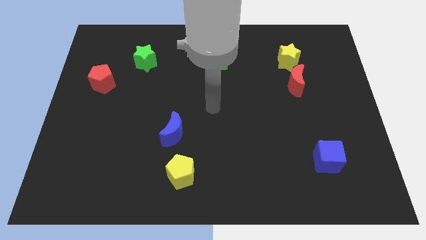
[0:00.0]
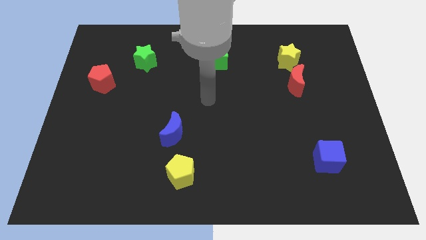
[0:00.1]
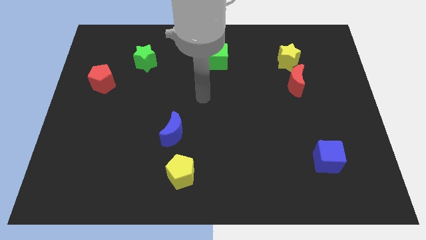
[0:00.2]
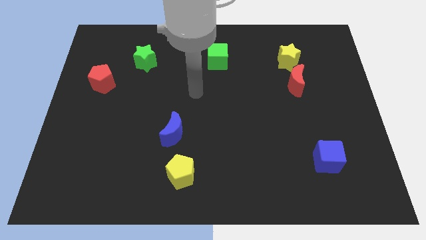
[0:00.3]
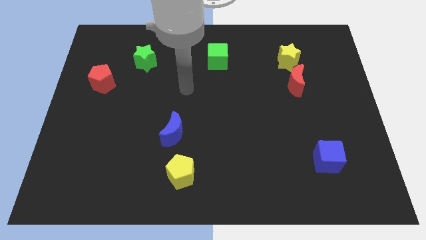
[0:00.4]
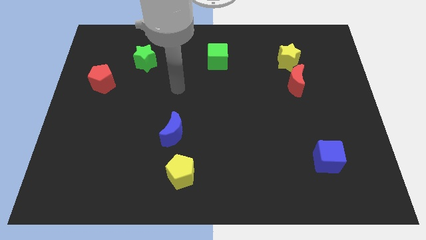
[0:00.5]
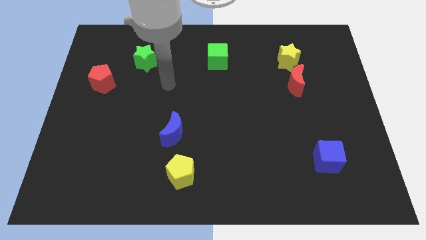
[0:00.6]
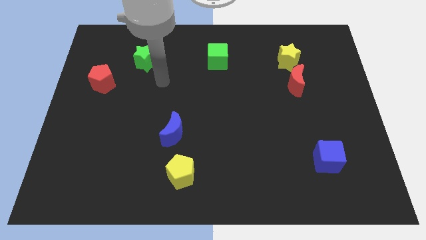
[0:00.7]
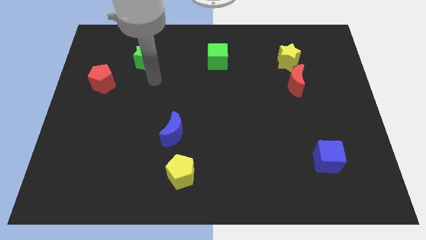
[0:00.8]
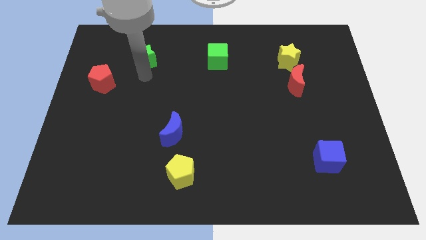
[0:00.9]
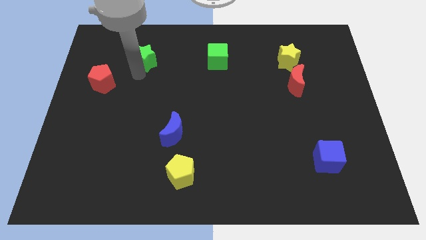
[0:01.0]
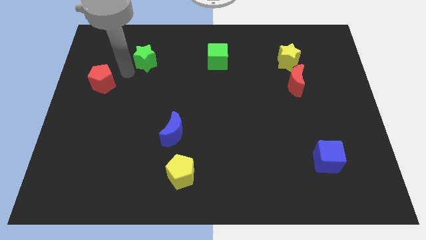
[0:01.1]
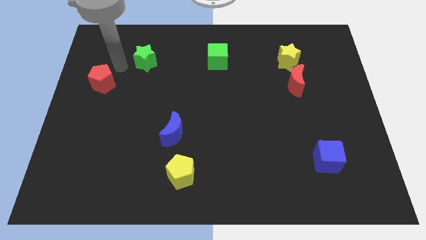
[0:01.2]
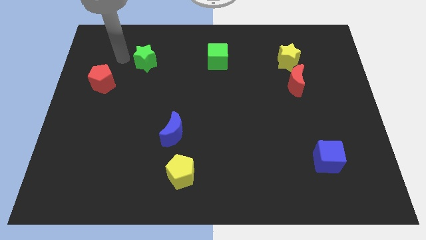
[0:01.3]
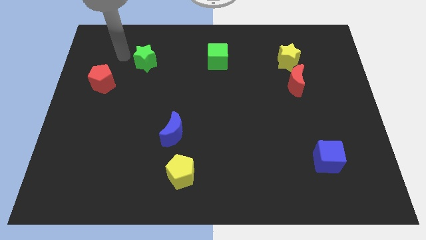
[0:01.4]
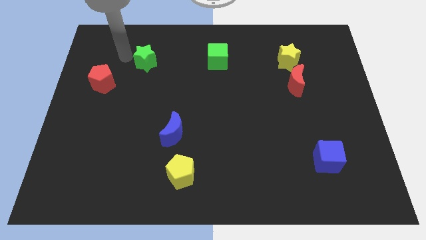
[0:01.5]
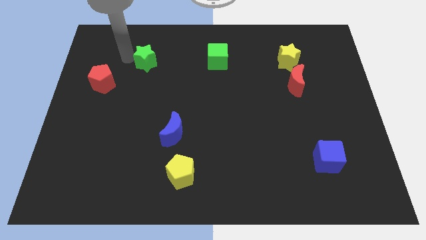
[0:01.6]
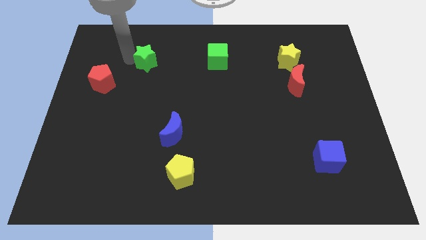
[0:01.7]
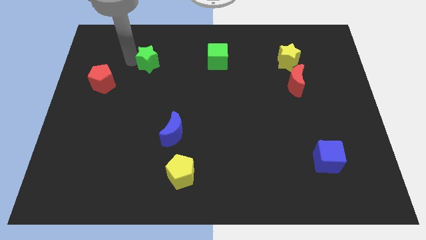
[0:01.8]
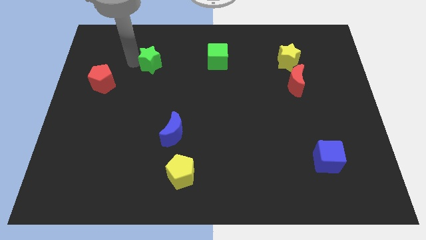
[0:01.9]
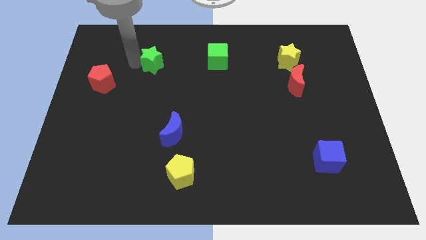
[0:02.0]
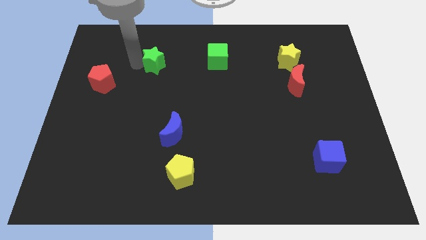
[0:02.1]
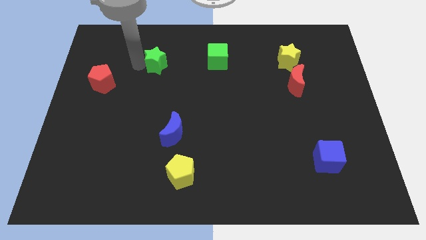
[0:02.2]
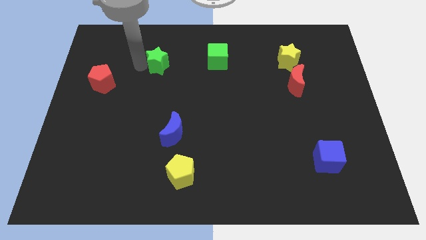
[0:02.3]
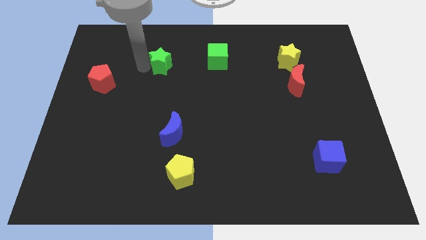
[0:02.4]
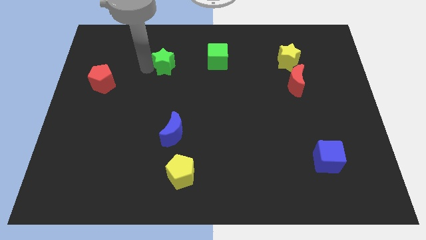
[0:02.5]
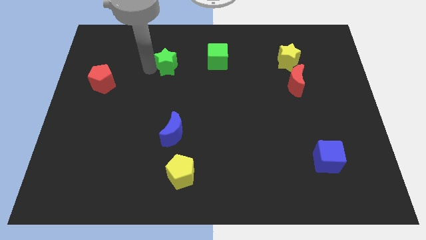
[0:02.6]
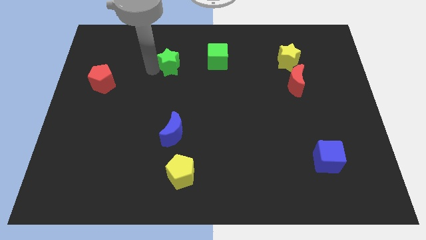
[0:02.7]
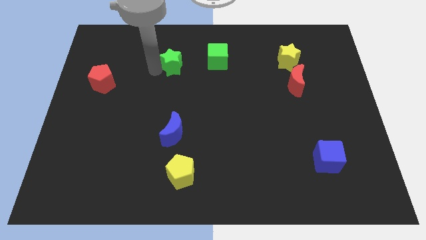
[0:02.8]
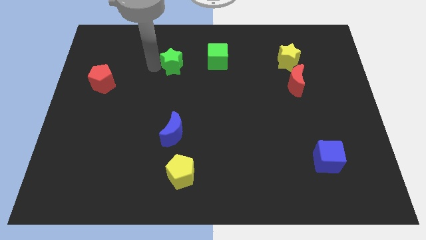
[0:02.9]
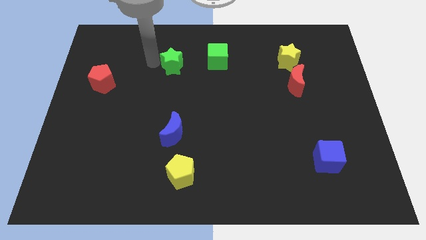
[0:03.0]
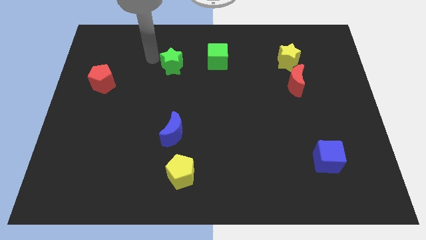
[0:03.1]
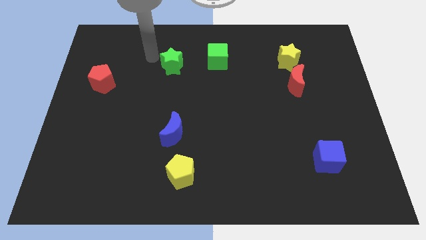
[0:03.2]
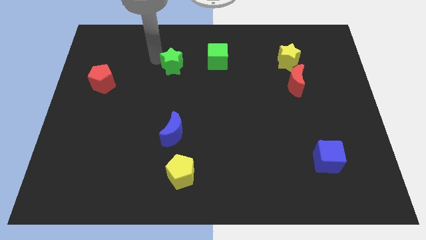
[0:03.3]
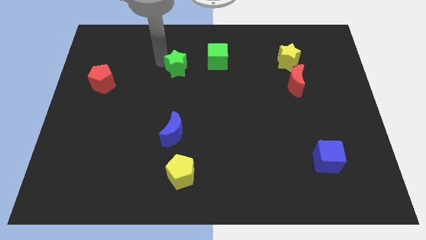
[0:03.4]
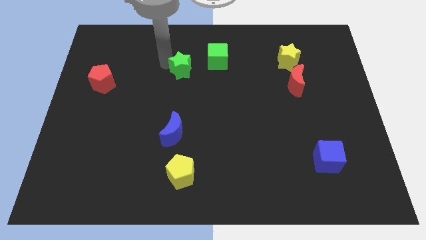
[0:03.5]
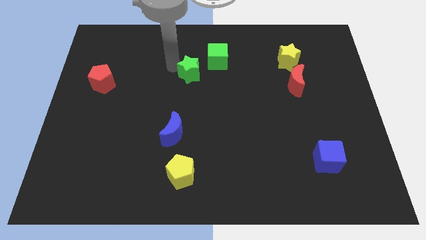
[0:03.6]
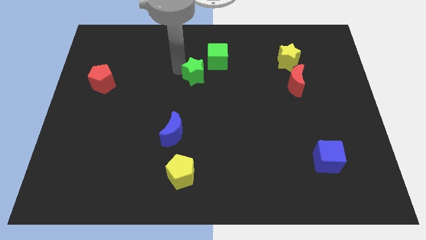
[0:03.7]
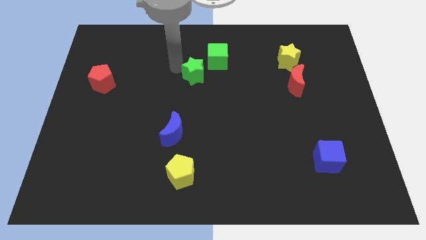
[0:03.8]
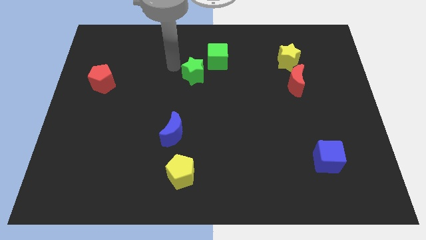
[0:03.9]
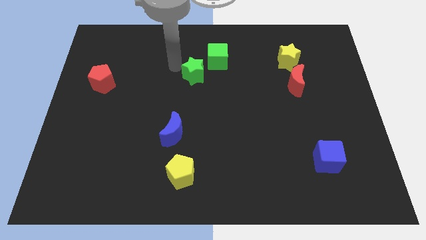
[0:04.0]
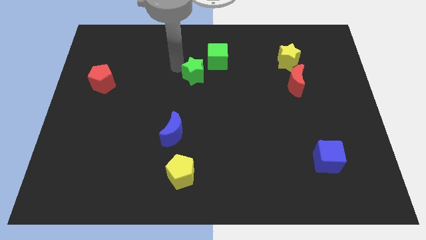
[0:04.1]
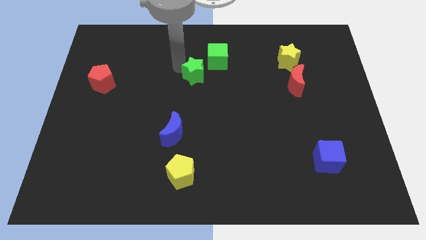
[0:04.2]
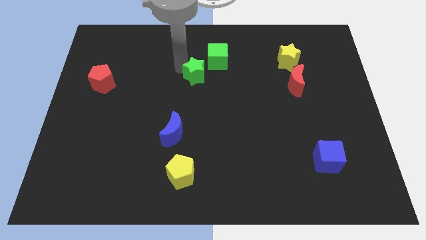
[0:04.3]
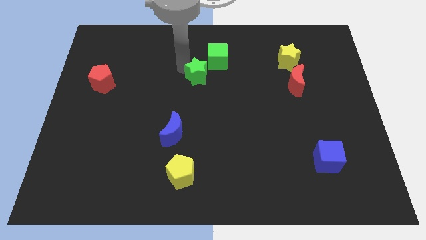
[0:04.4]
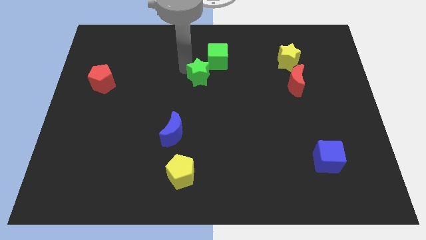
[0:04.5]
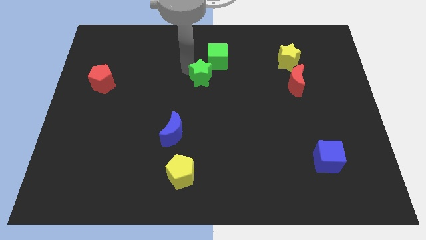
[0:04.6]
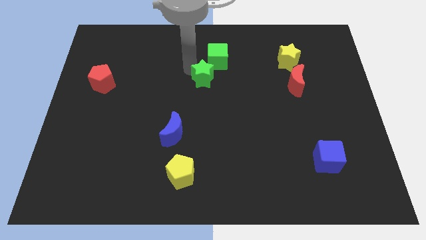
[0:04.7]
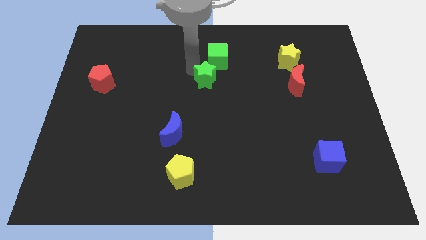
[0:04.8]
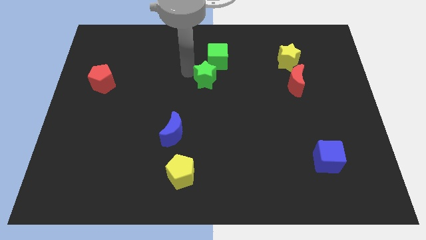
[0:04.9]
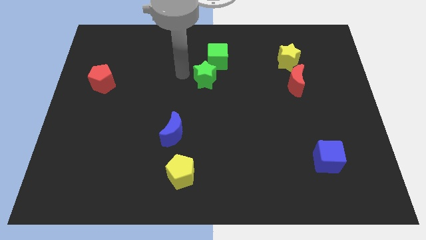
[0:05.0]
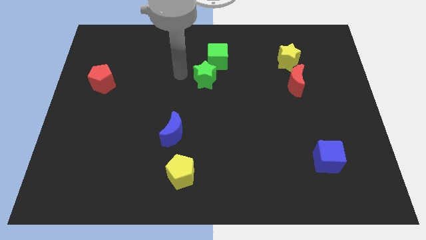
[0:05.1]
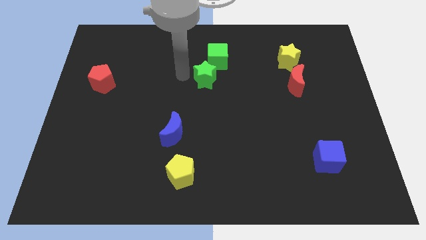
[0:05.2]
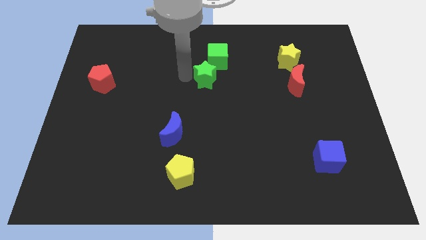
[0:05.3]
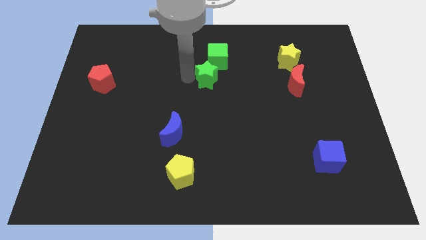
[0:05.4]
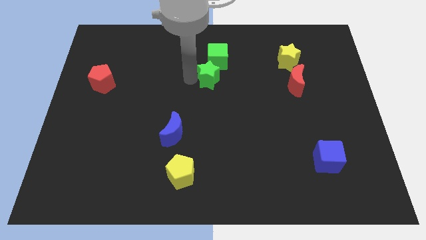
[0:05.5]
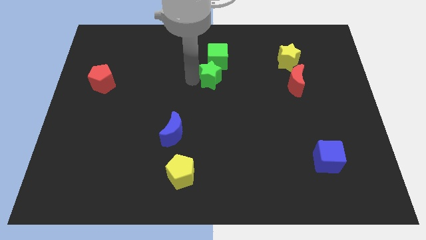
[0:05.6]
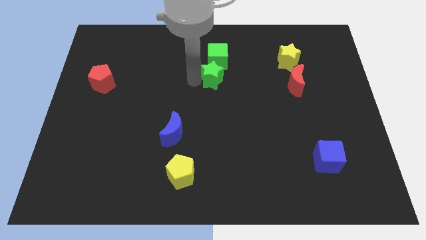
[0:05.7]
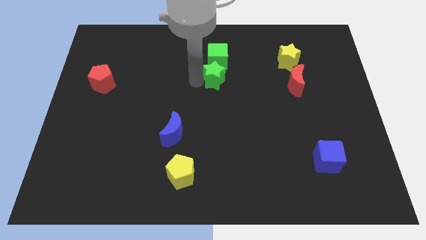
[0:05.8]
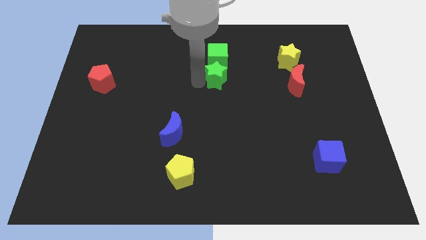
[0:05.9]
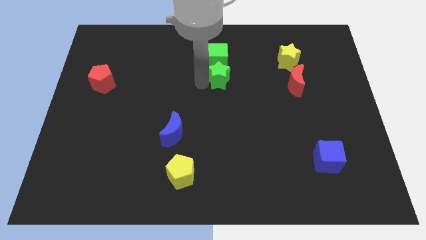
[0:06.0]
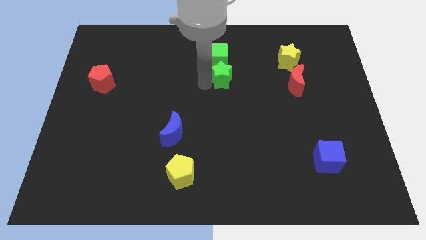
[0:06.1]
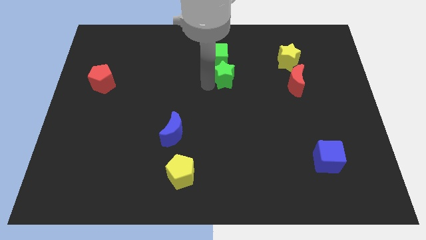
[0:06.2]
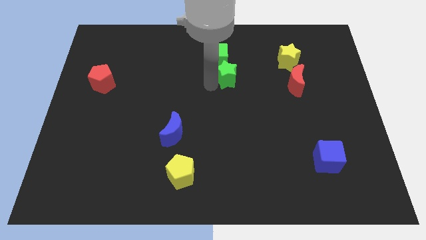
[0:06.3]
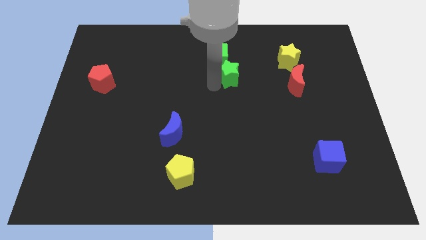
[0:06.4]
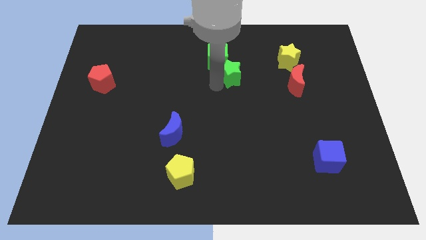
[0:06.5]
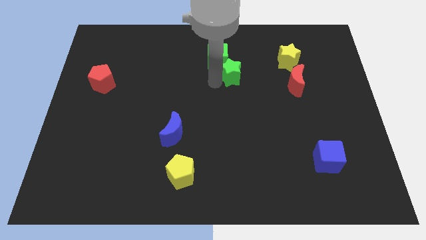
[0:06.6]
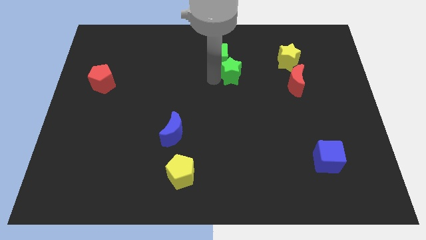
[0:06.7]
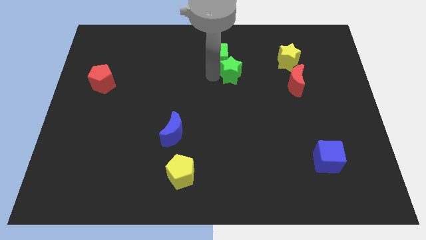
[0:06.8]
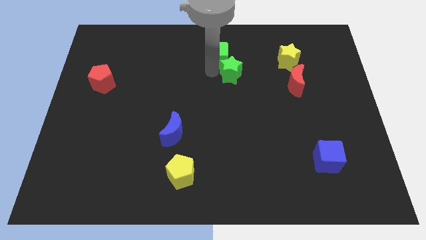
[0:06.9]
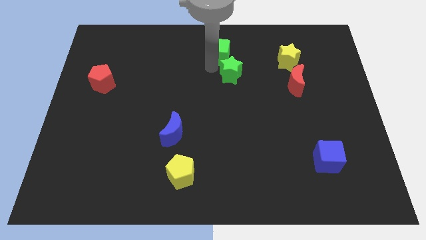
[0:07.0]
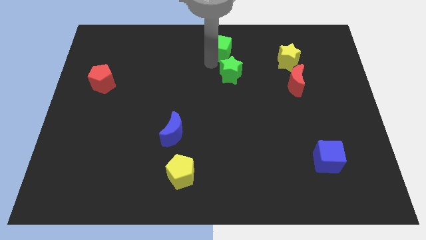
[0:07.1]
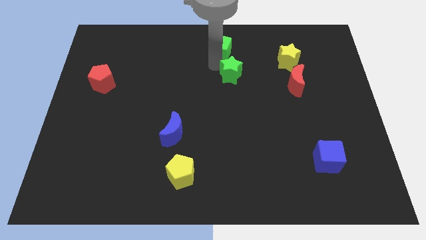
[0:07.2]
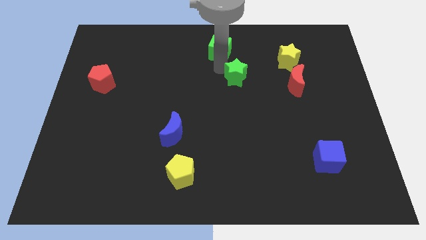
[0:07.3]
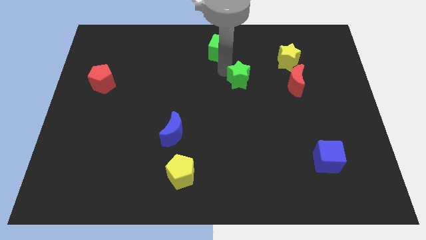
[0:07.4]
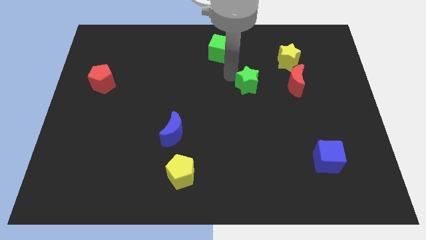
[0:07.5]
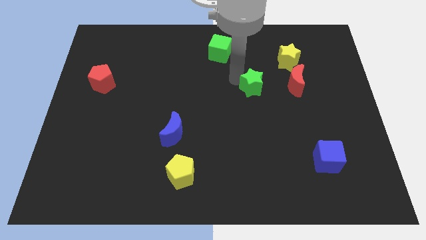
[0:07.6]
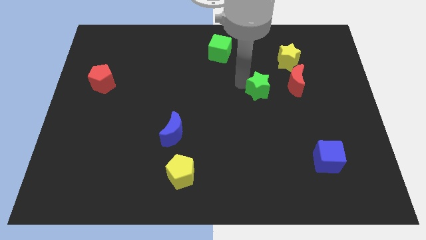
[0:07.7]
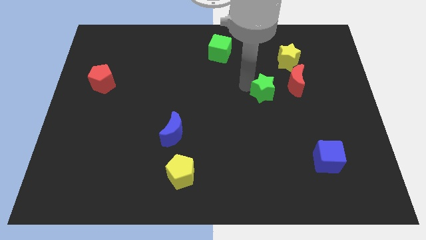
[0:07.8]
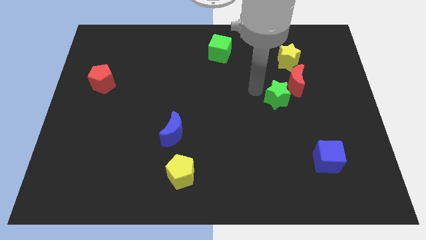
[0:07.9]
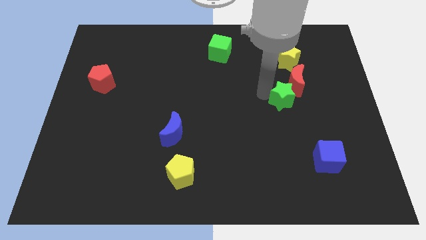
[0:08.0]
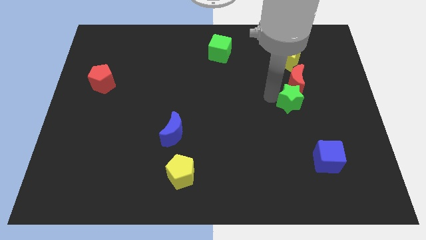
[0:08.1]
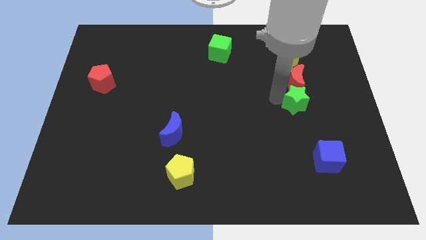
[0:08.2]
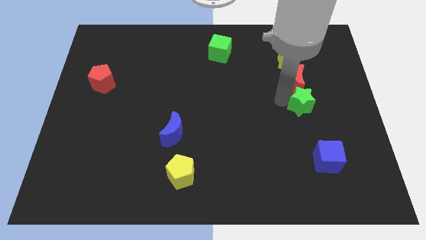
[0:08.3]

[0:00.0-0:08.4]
move the green star to the top side of the blue cube
